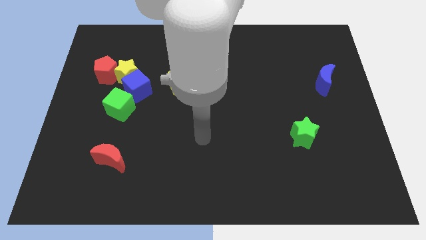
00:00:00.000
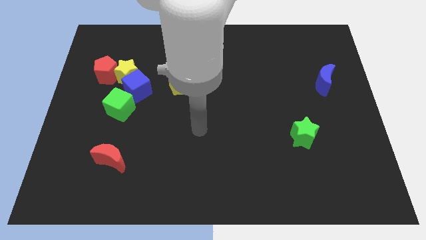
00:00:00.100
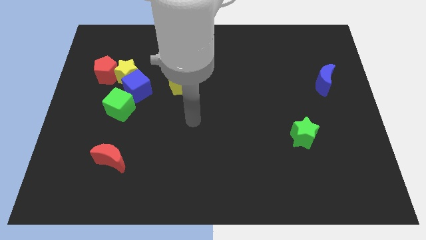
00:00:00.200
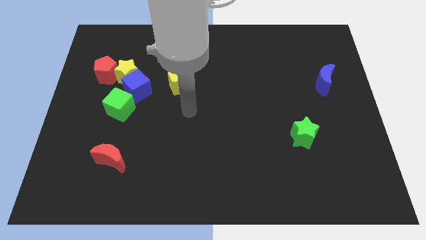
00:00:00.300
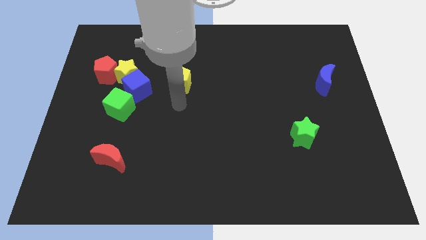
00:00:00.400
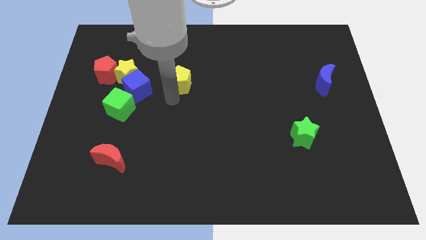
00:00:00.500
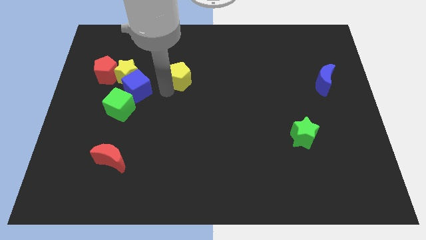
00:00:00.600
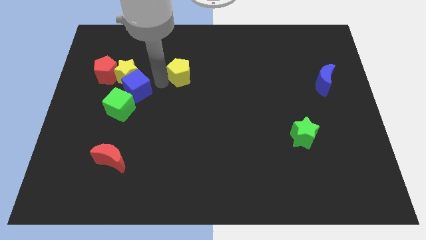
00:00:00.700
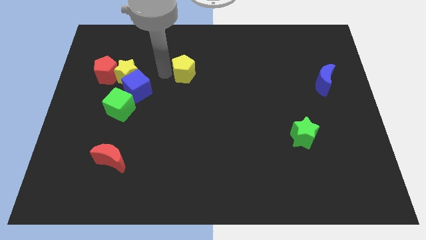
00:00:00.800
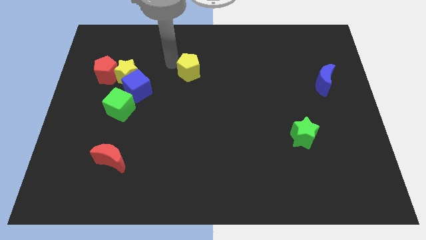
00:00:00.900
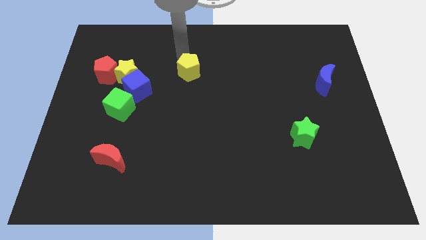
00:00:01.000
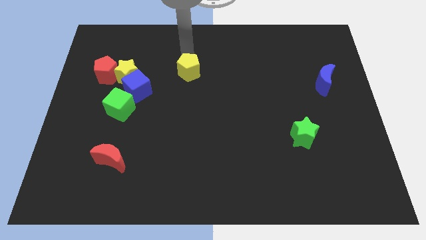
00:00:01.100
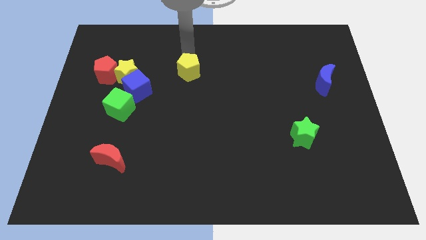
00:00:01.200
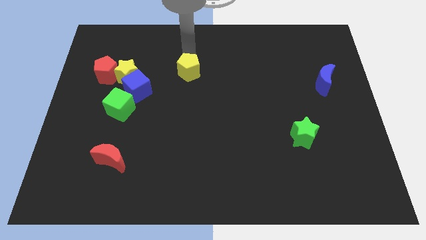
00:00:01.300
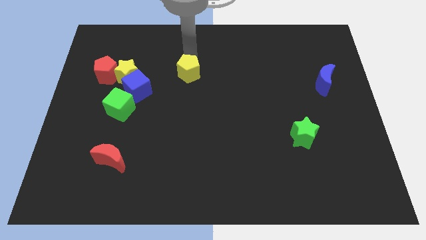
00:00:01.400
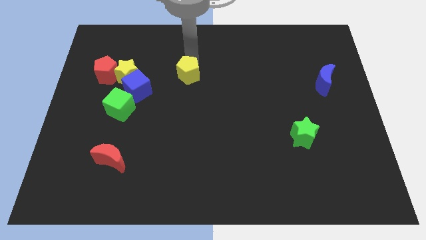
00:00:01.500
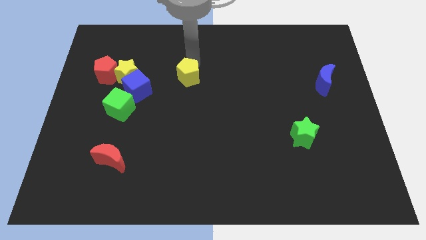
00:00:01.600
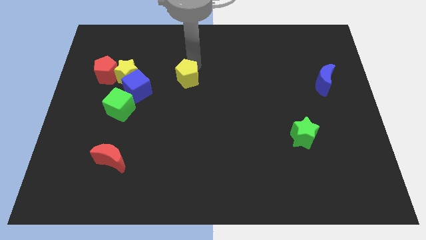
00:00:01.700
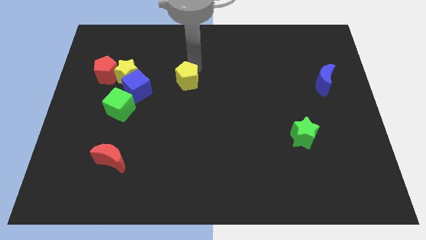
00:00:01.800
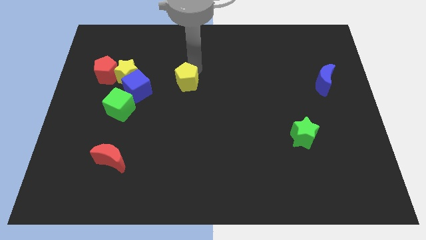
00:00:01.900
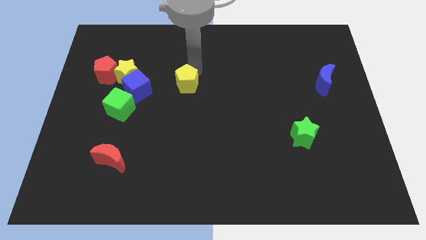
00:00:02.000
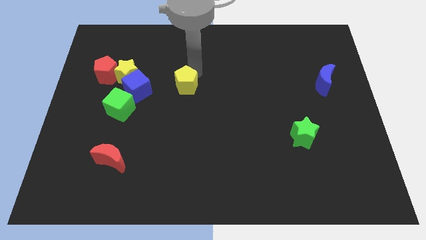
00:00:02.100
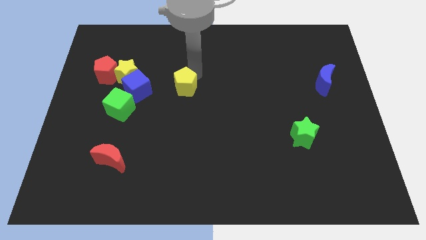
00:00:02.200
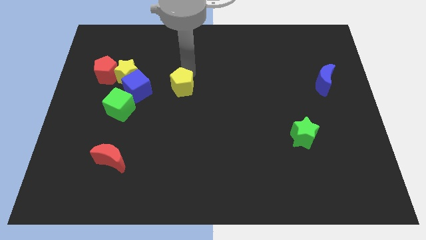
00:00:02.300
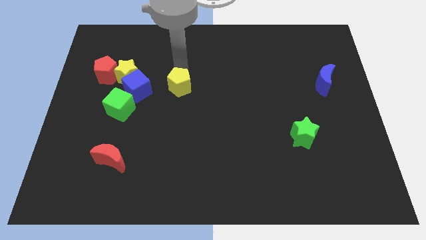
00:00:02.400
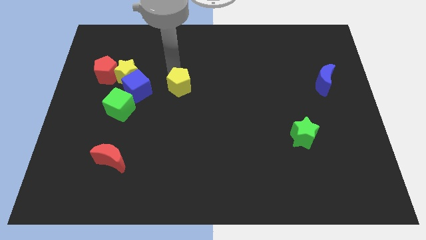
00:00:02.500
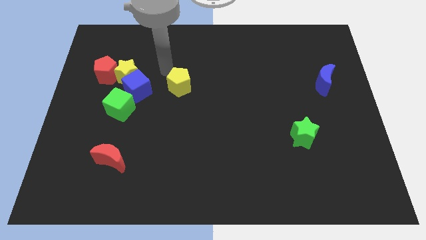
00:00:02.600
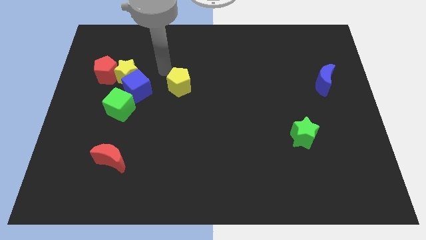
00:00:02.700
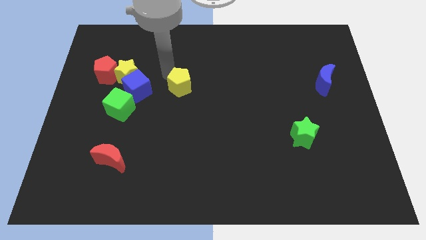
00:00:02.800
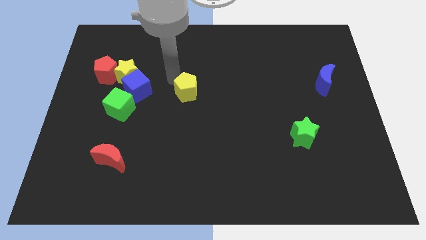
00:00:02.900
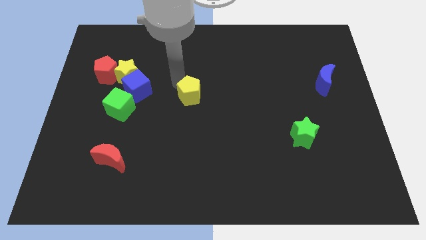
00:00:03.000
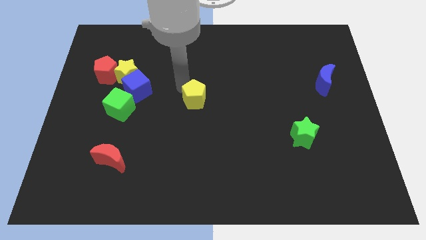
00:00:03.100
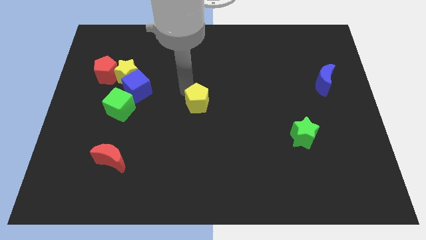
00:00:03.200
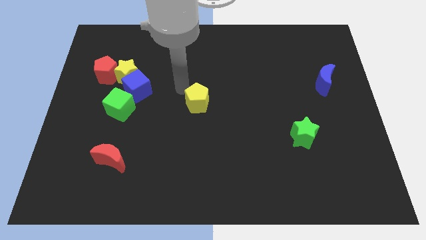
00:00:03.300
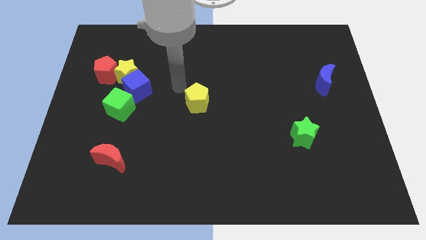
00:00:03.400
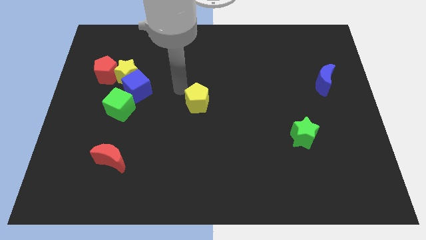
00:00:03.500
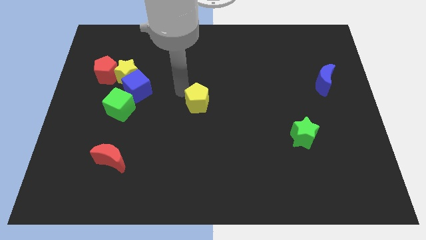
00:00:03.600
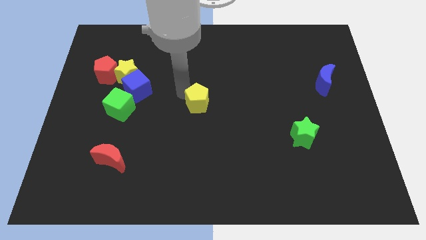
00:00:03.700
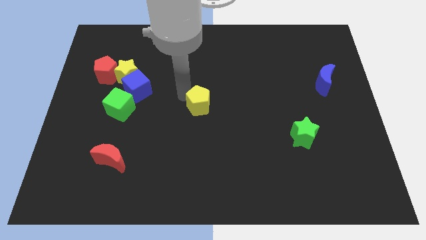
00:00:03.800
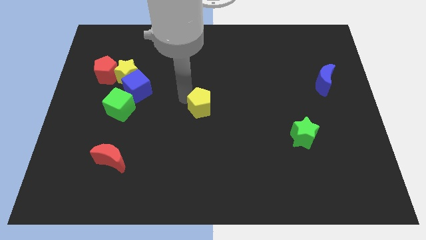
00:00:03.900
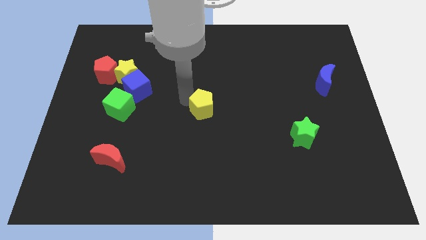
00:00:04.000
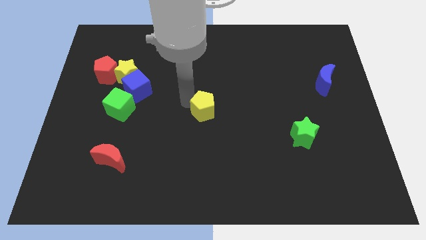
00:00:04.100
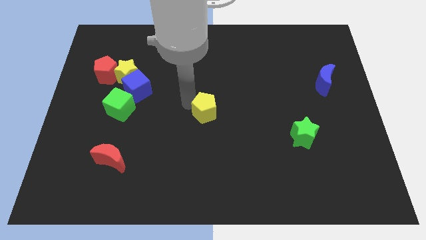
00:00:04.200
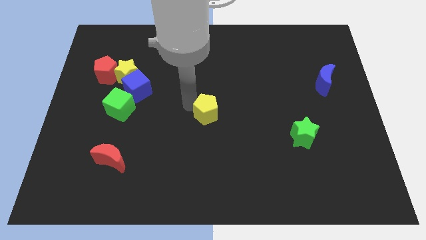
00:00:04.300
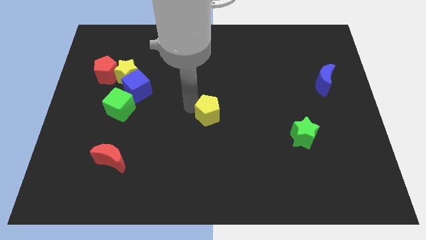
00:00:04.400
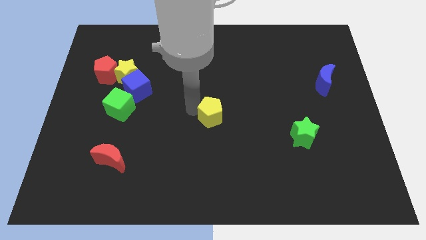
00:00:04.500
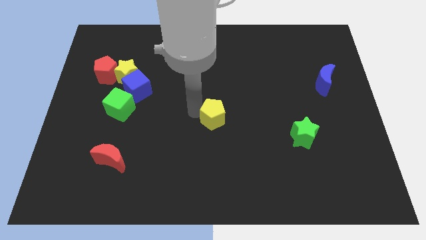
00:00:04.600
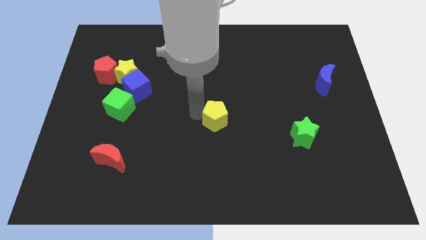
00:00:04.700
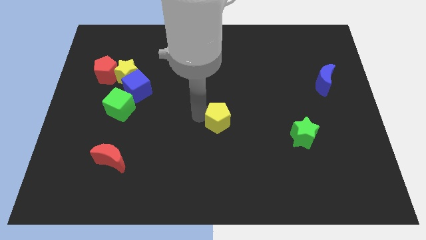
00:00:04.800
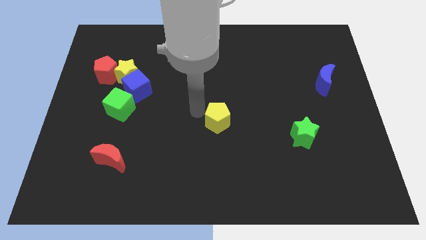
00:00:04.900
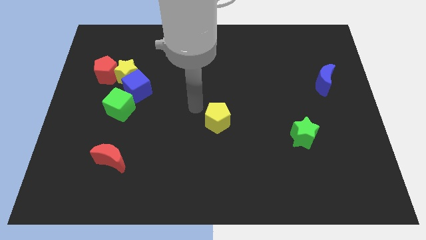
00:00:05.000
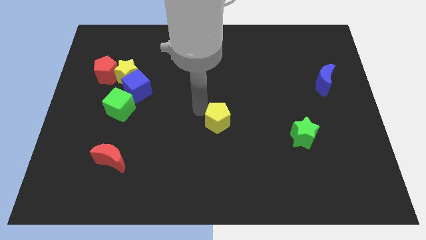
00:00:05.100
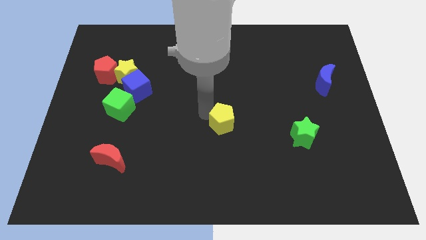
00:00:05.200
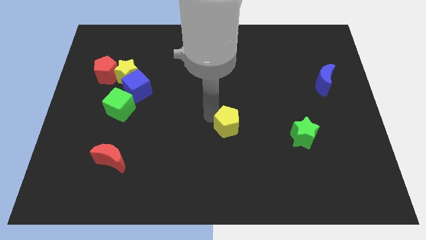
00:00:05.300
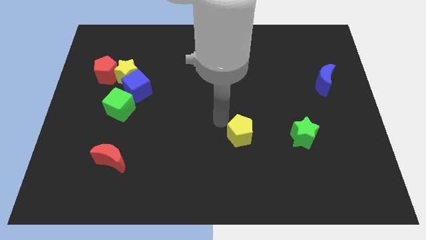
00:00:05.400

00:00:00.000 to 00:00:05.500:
slide the yellow pentagon diagonally down and right

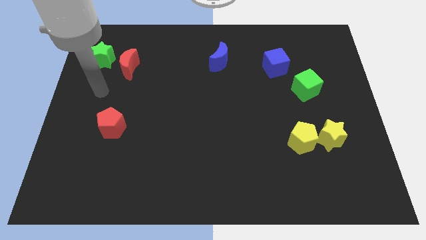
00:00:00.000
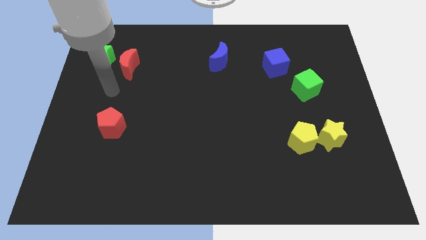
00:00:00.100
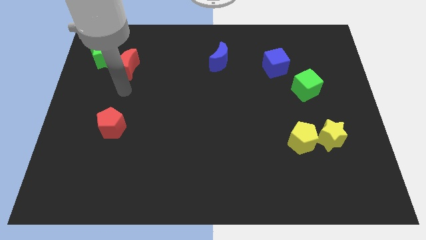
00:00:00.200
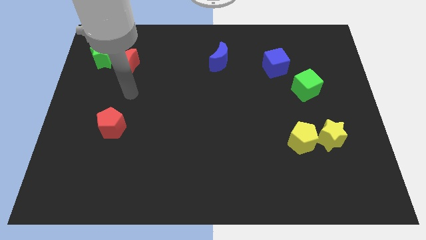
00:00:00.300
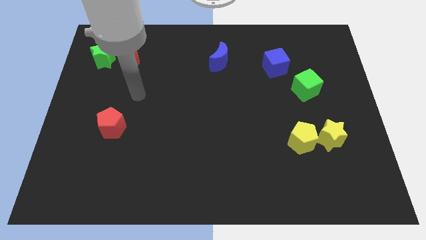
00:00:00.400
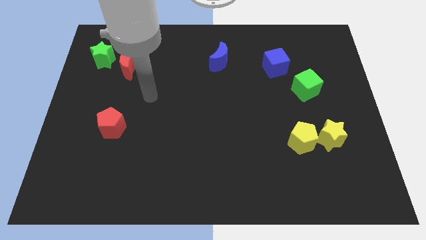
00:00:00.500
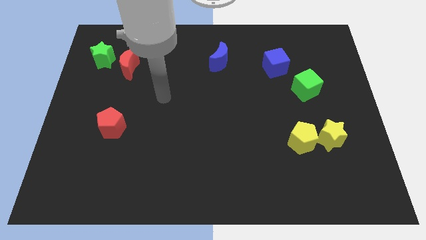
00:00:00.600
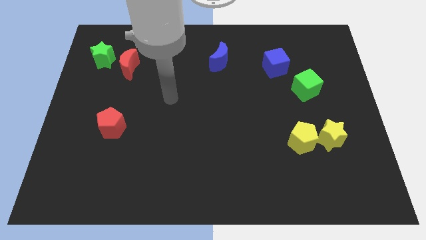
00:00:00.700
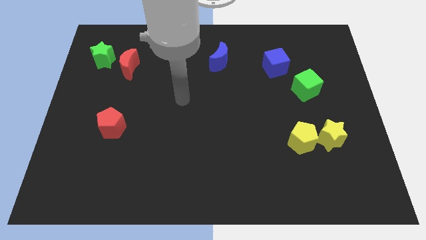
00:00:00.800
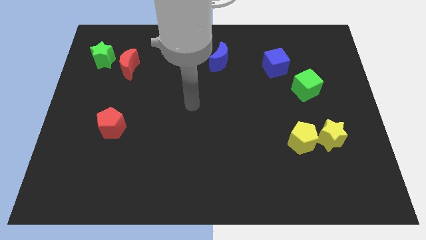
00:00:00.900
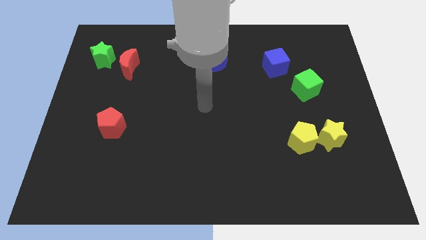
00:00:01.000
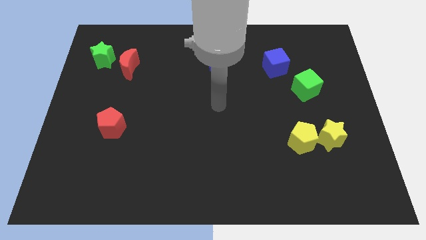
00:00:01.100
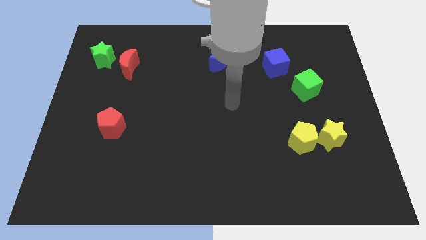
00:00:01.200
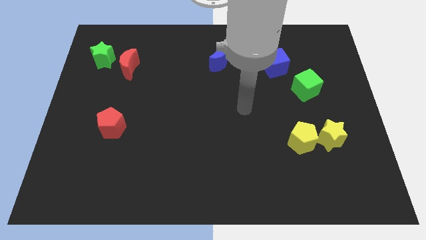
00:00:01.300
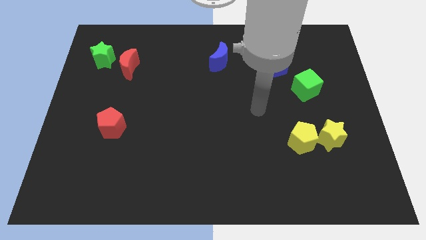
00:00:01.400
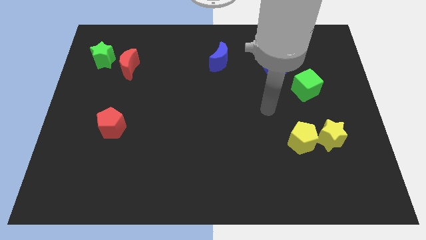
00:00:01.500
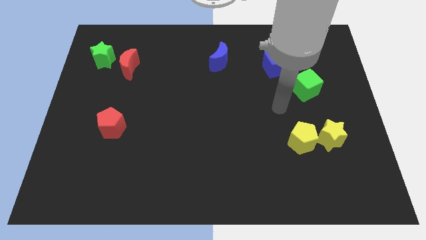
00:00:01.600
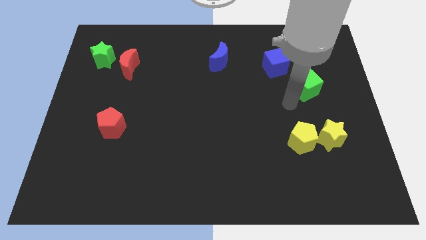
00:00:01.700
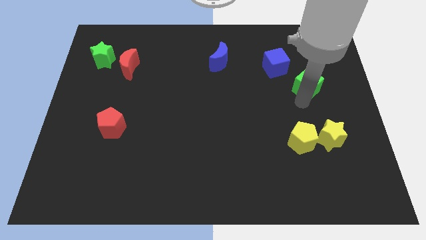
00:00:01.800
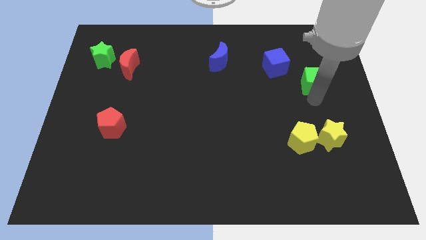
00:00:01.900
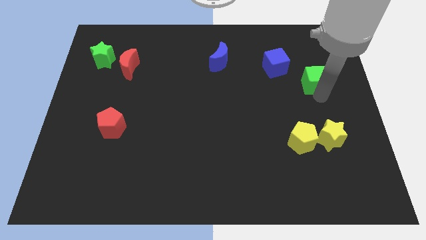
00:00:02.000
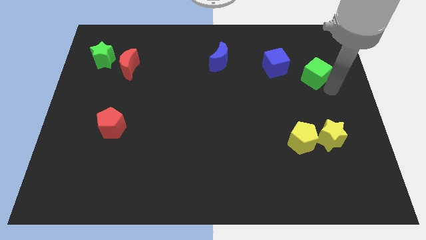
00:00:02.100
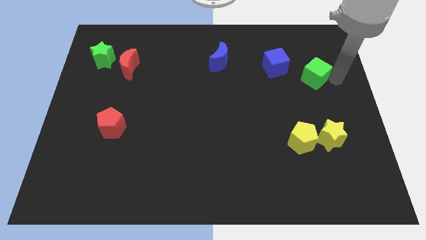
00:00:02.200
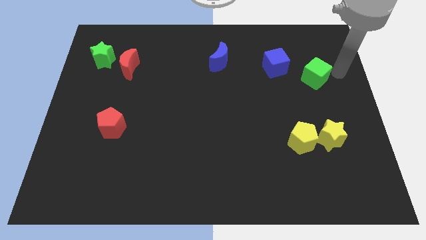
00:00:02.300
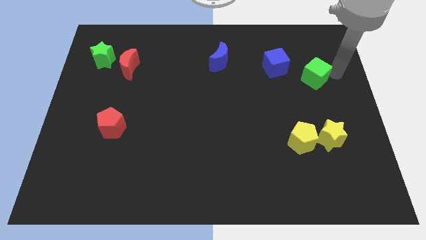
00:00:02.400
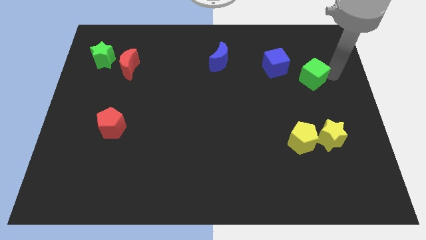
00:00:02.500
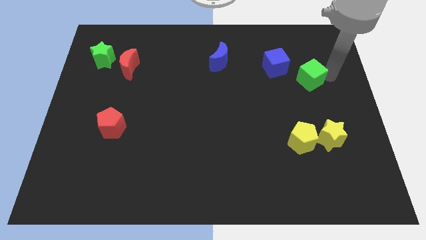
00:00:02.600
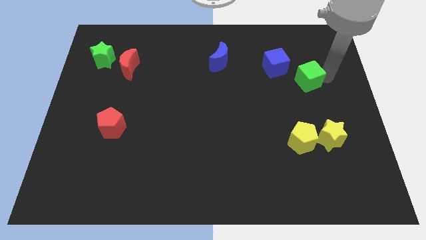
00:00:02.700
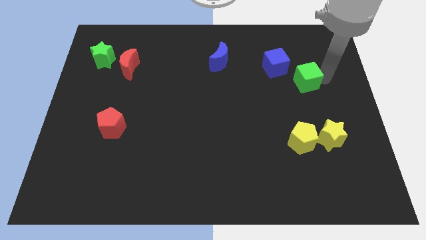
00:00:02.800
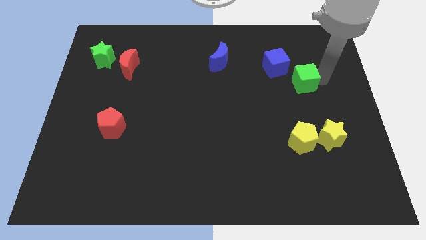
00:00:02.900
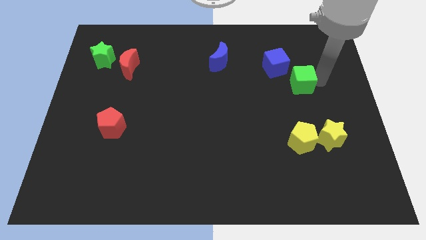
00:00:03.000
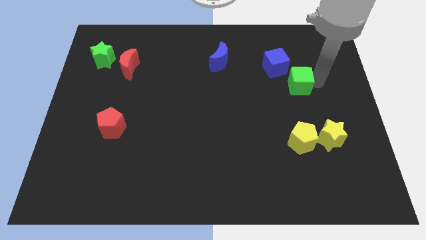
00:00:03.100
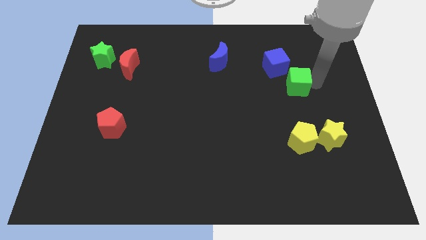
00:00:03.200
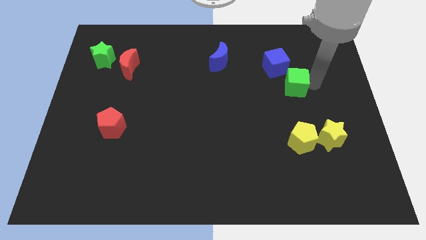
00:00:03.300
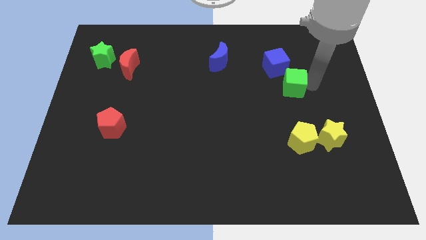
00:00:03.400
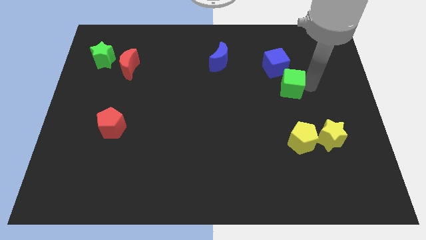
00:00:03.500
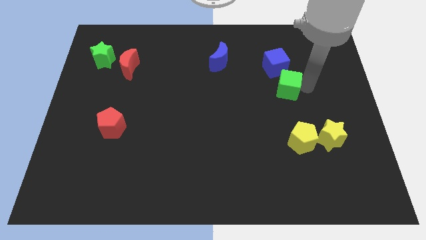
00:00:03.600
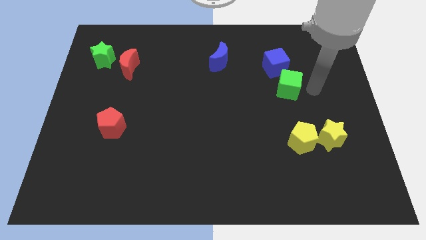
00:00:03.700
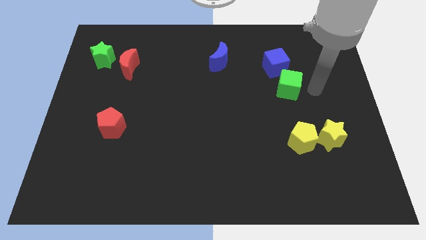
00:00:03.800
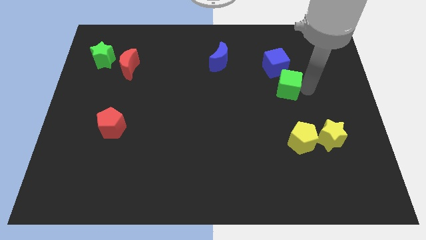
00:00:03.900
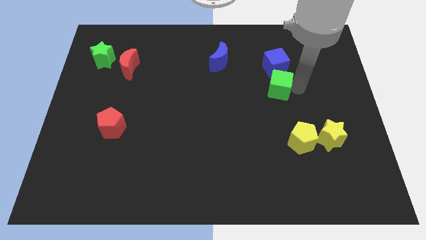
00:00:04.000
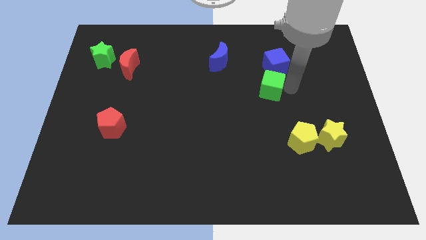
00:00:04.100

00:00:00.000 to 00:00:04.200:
slide the green cube somewhat to the left
